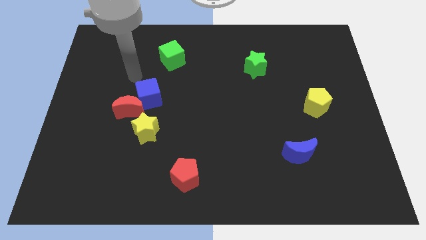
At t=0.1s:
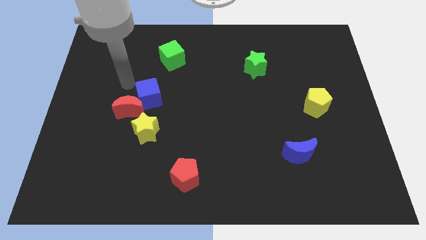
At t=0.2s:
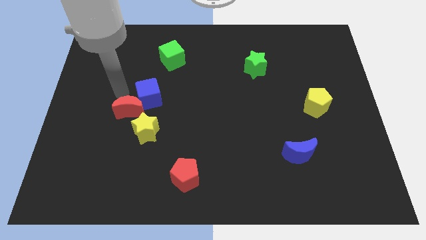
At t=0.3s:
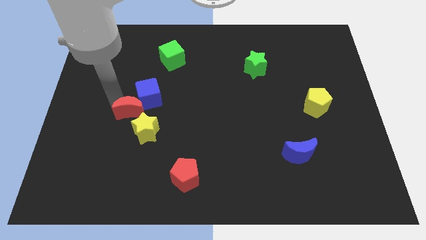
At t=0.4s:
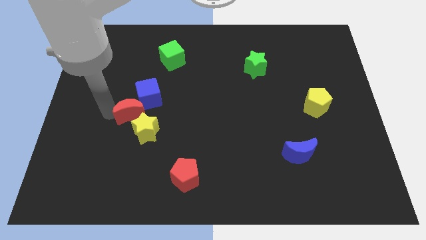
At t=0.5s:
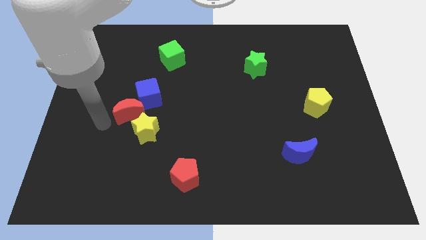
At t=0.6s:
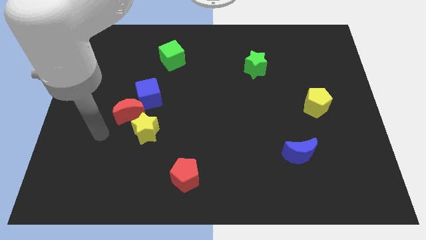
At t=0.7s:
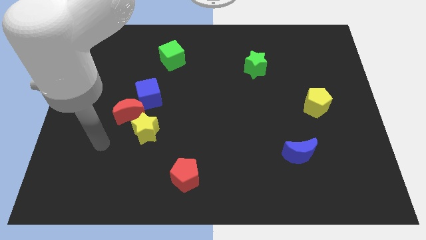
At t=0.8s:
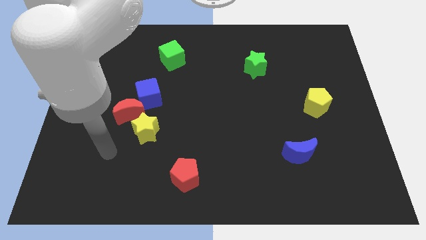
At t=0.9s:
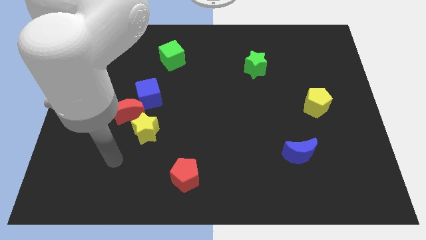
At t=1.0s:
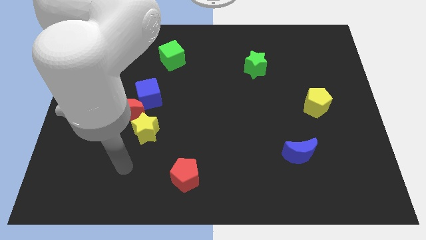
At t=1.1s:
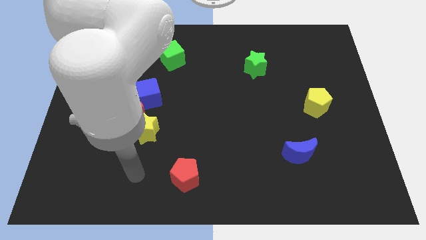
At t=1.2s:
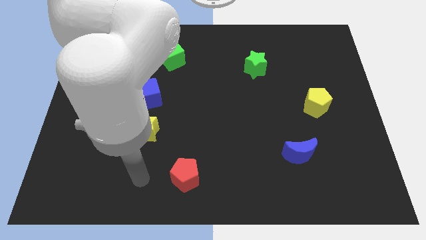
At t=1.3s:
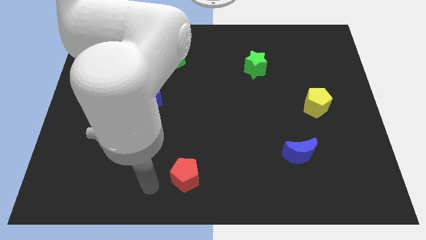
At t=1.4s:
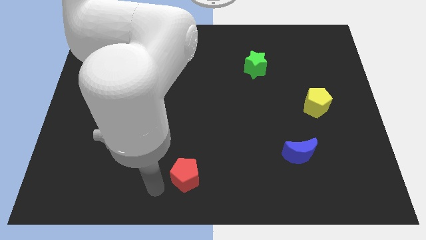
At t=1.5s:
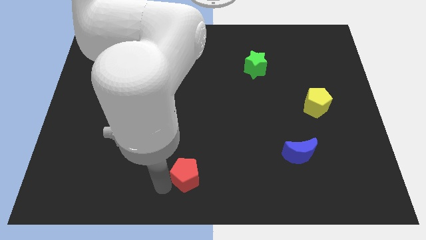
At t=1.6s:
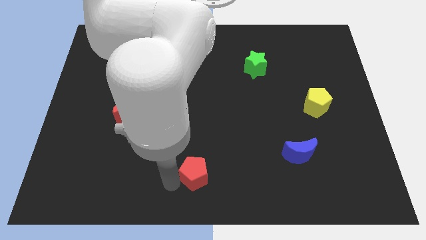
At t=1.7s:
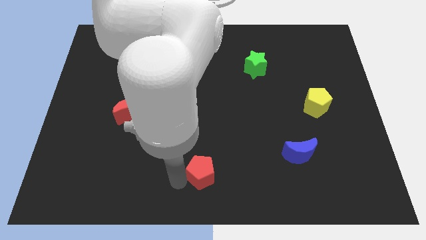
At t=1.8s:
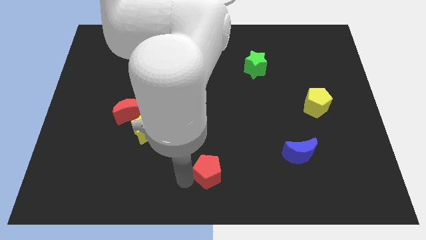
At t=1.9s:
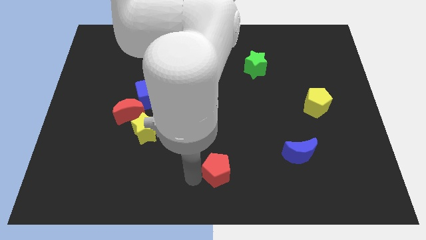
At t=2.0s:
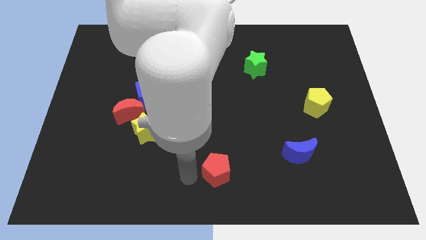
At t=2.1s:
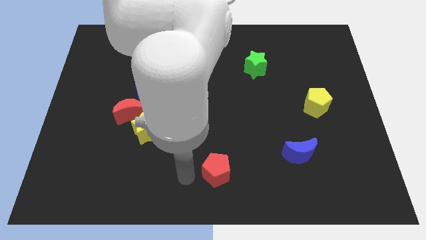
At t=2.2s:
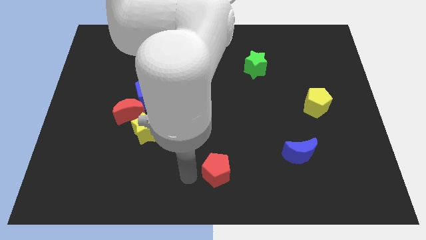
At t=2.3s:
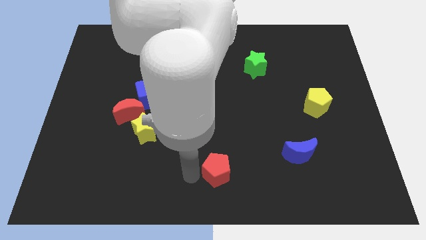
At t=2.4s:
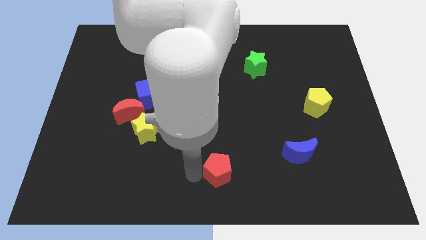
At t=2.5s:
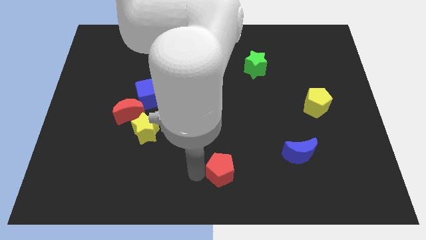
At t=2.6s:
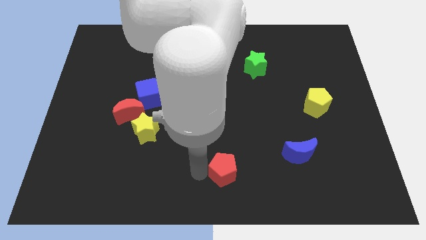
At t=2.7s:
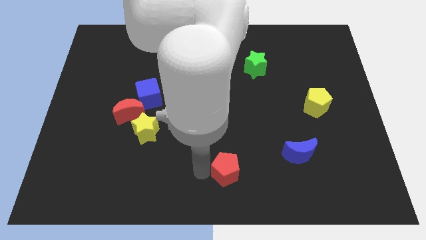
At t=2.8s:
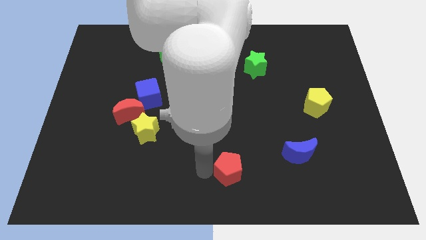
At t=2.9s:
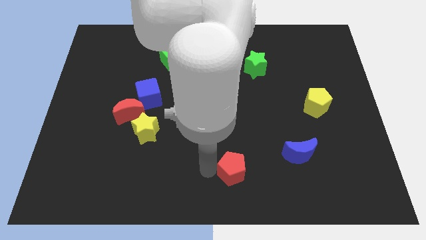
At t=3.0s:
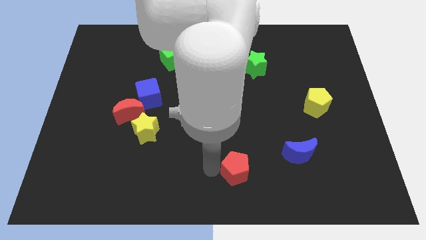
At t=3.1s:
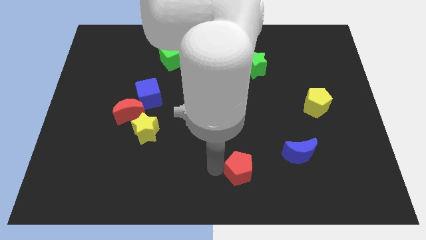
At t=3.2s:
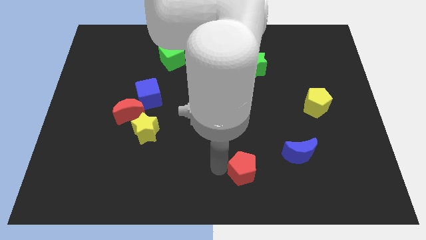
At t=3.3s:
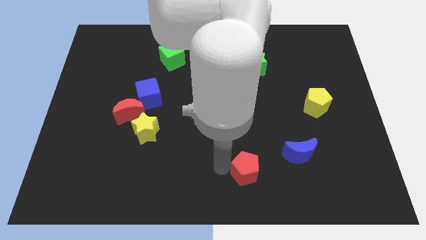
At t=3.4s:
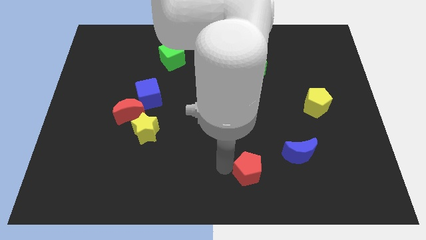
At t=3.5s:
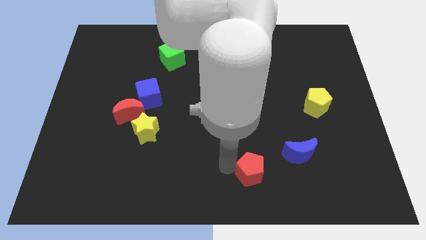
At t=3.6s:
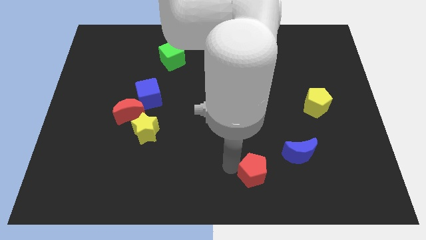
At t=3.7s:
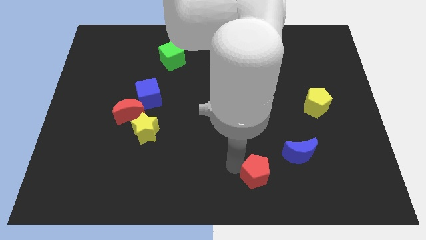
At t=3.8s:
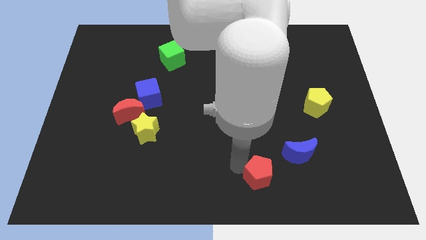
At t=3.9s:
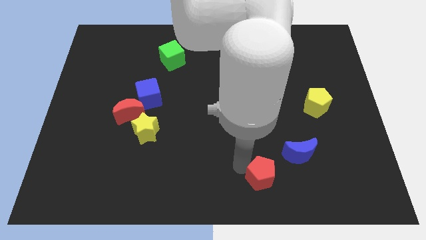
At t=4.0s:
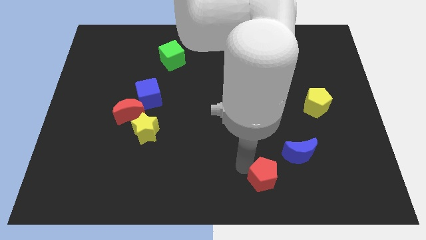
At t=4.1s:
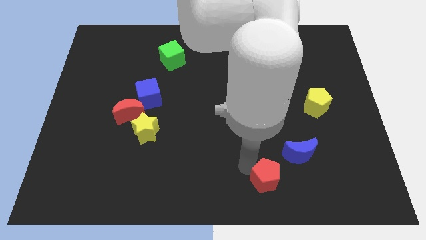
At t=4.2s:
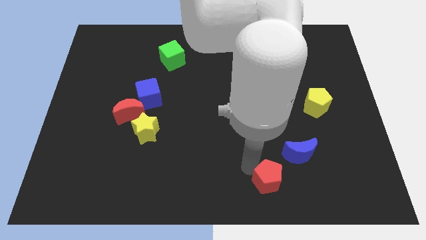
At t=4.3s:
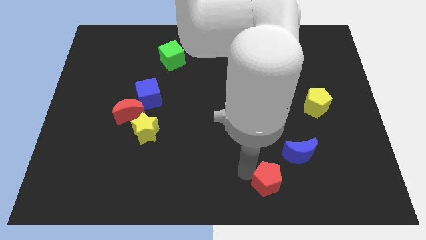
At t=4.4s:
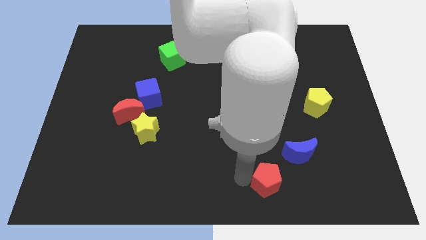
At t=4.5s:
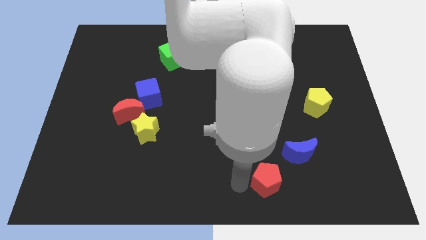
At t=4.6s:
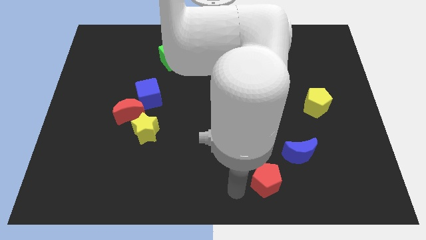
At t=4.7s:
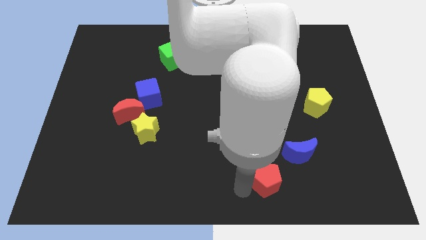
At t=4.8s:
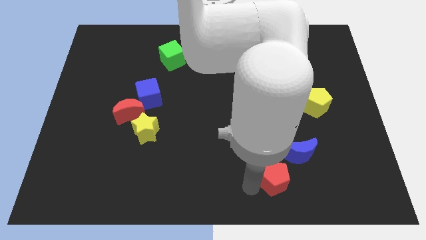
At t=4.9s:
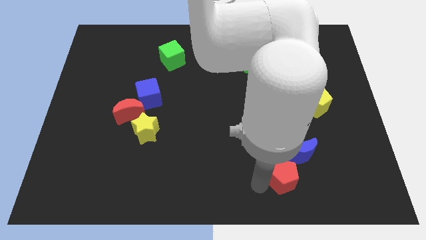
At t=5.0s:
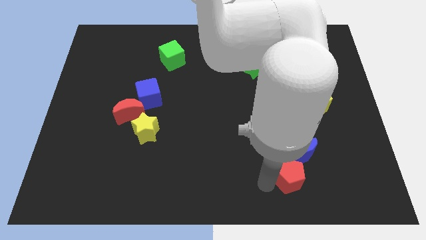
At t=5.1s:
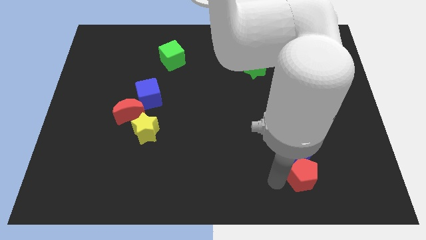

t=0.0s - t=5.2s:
slide the red pentagon diagonally down and to the right of the blue moon

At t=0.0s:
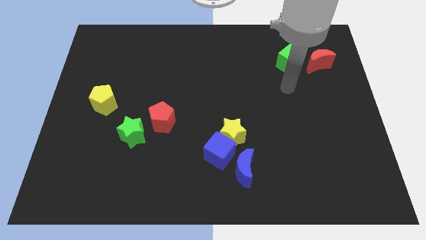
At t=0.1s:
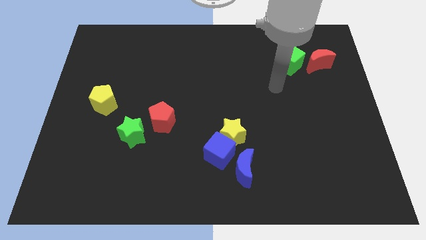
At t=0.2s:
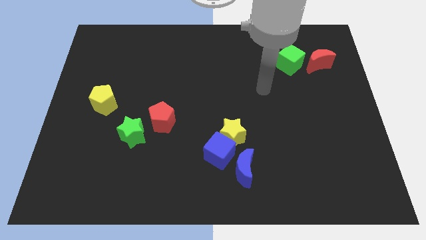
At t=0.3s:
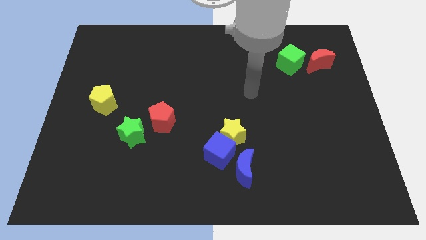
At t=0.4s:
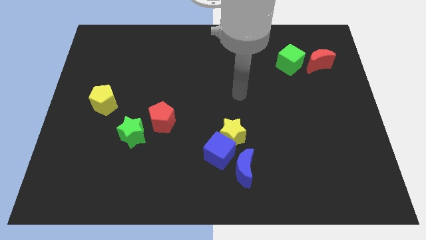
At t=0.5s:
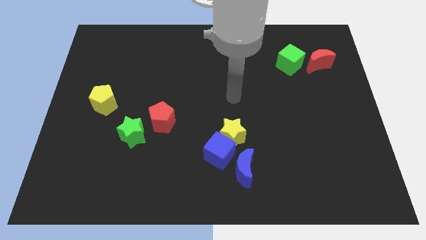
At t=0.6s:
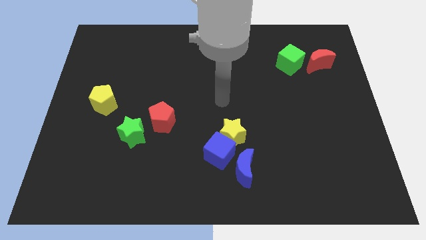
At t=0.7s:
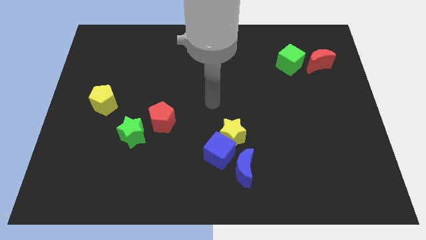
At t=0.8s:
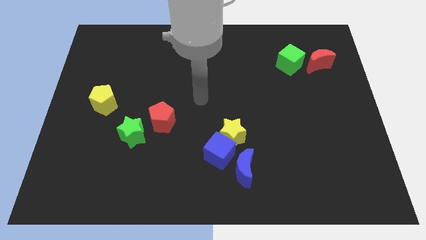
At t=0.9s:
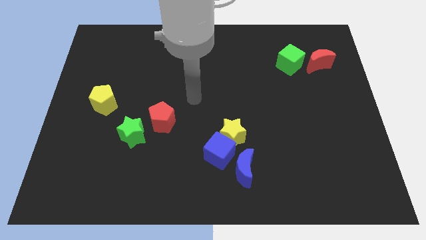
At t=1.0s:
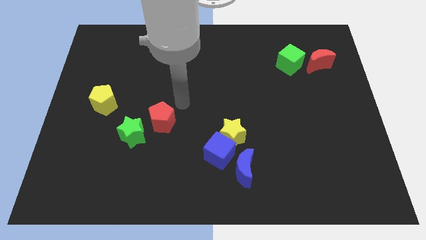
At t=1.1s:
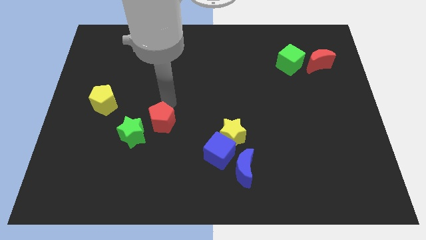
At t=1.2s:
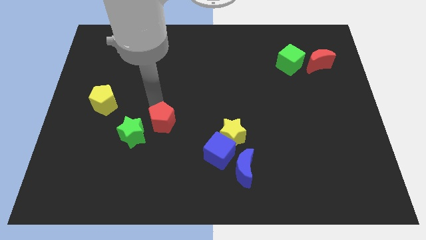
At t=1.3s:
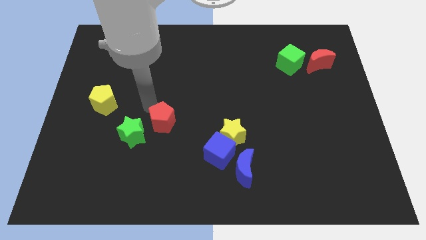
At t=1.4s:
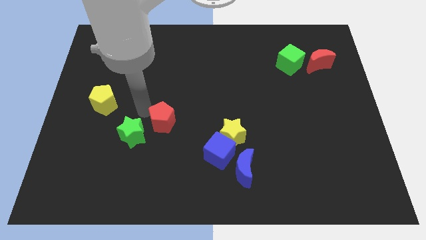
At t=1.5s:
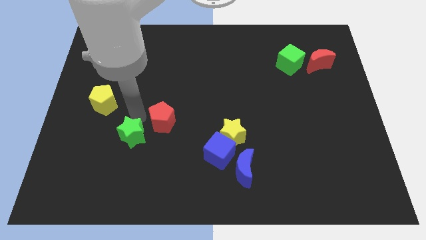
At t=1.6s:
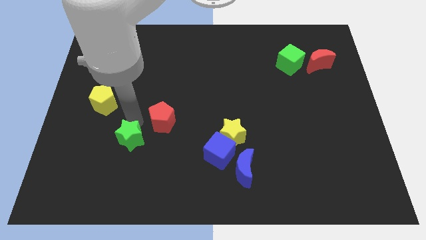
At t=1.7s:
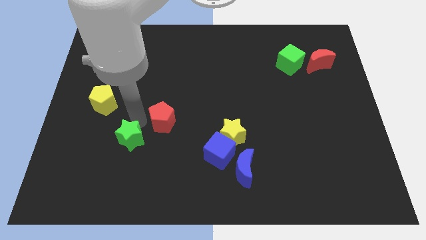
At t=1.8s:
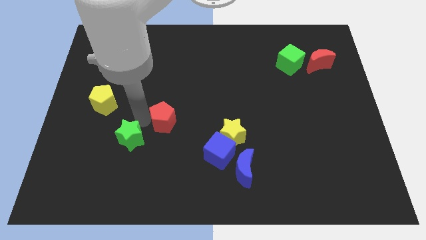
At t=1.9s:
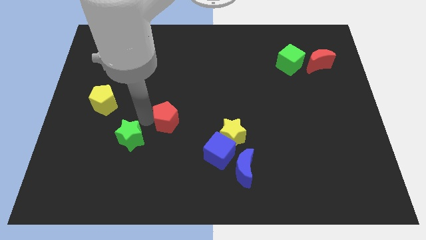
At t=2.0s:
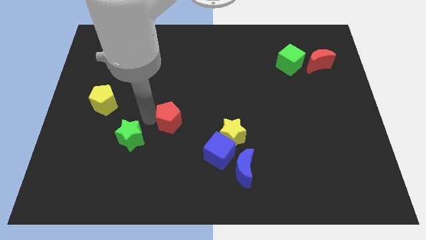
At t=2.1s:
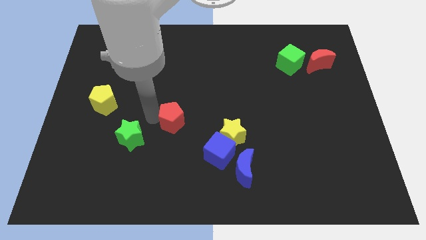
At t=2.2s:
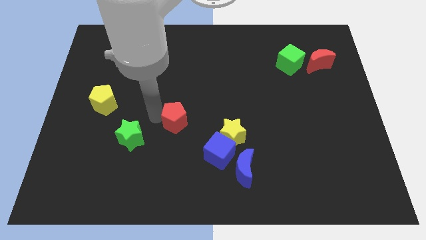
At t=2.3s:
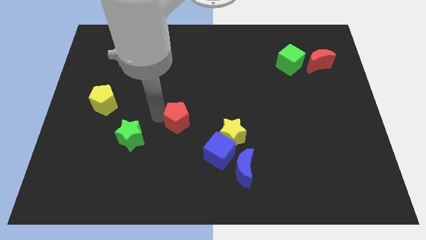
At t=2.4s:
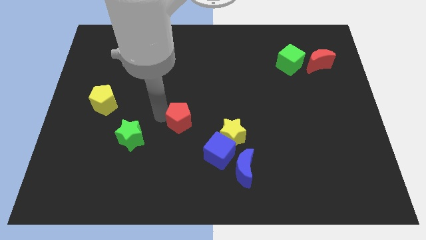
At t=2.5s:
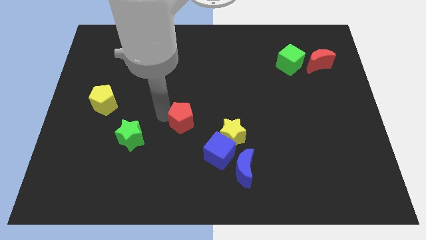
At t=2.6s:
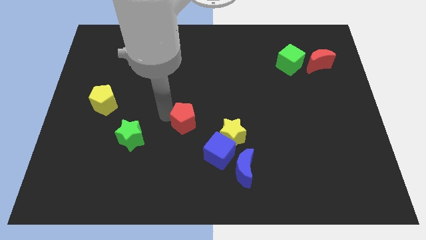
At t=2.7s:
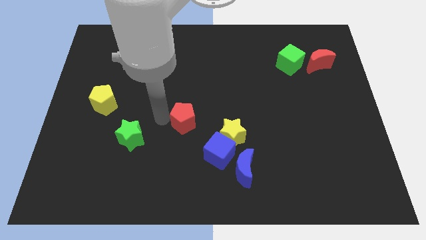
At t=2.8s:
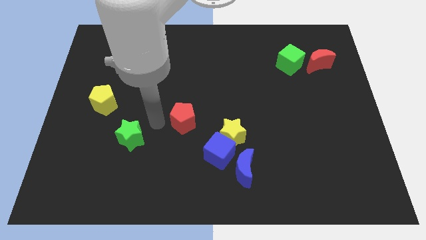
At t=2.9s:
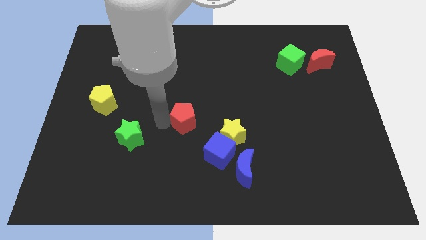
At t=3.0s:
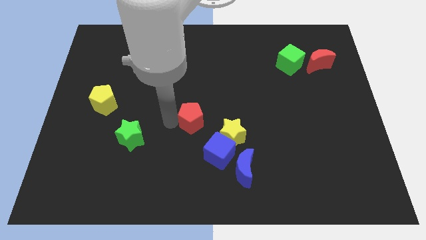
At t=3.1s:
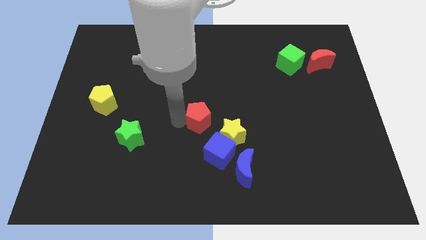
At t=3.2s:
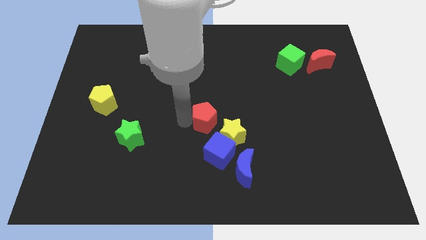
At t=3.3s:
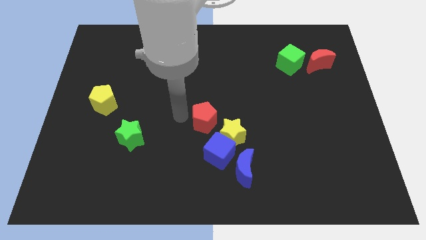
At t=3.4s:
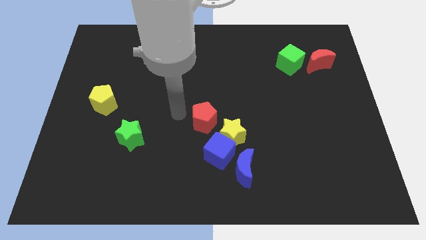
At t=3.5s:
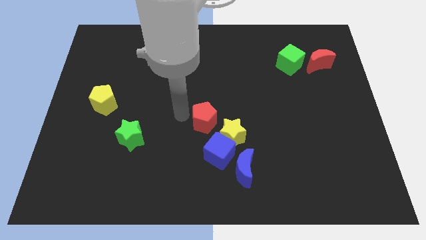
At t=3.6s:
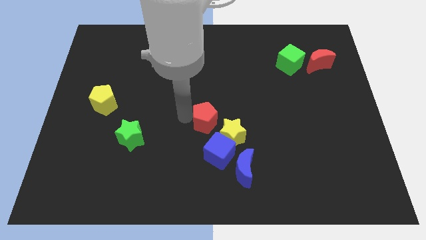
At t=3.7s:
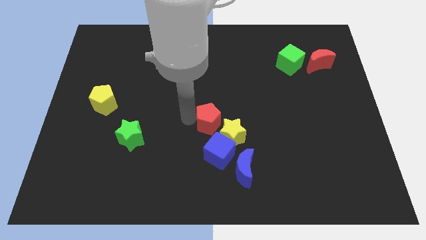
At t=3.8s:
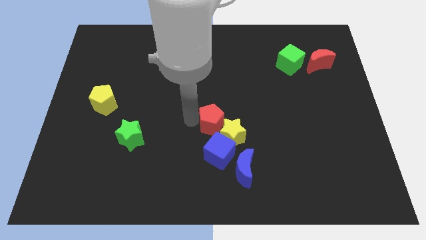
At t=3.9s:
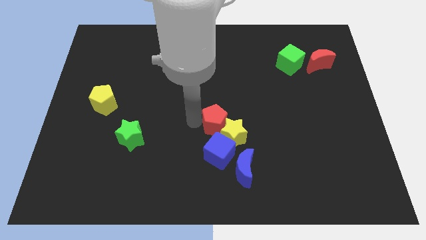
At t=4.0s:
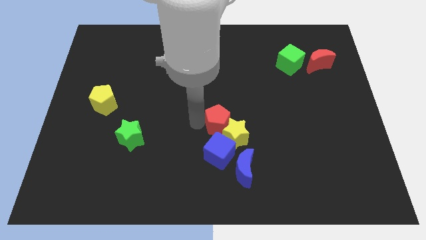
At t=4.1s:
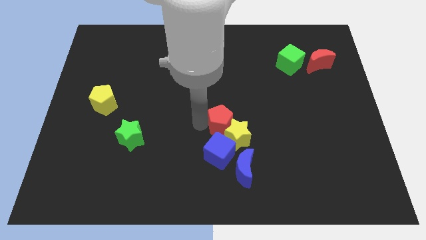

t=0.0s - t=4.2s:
put the red pentagon to the top side of the blue moon
